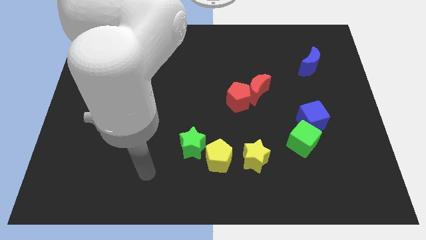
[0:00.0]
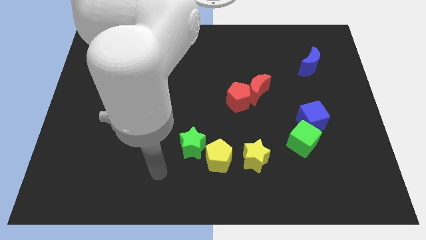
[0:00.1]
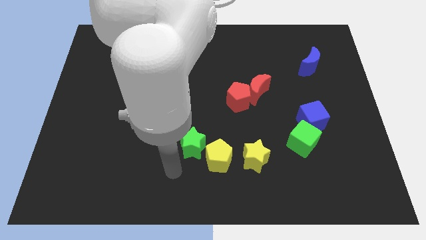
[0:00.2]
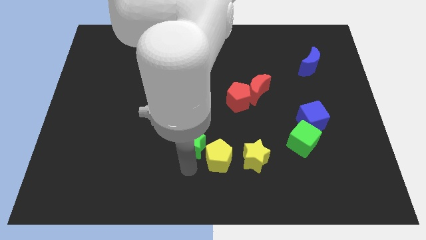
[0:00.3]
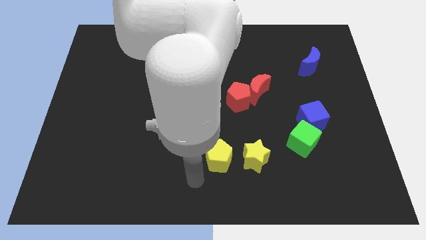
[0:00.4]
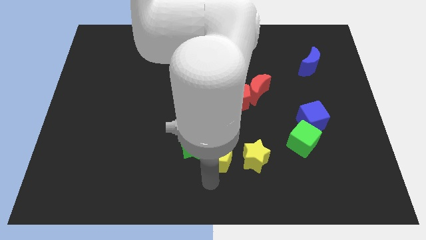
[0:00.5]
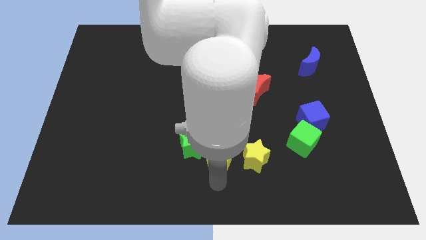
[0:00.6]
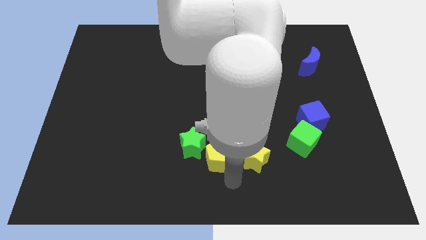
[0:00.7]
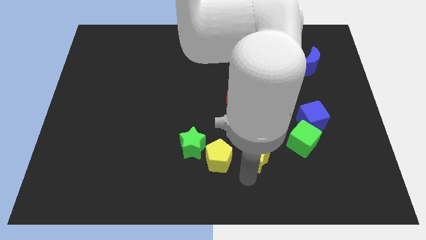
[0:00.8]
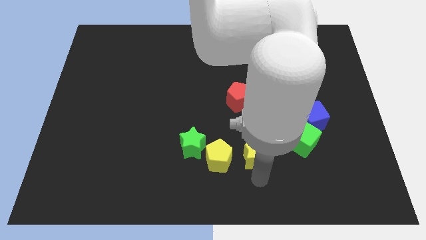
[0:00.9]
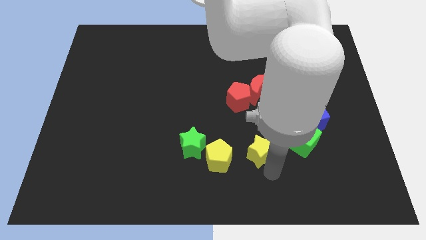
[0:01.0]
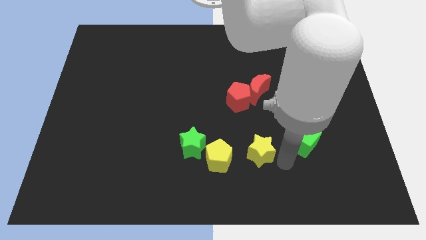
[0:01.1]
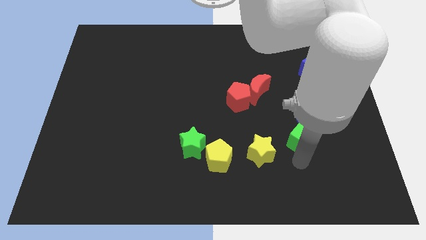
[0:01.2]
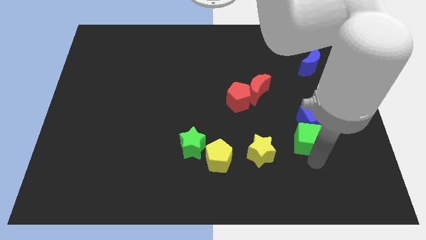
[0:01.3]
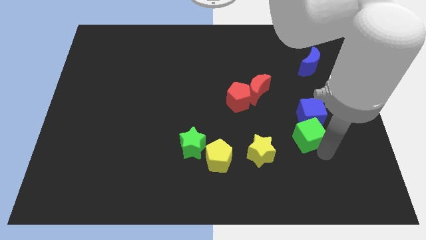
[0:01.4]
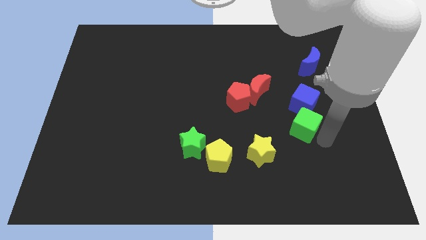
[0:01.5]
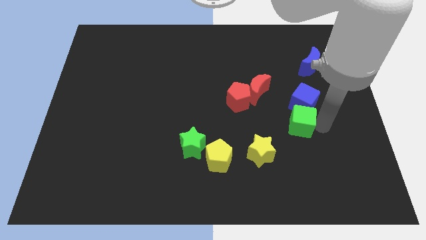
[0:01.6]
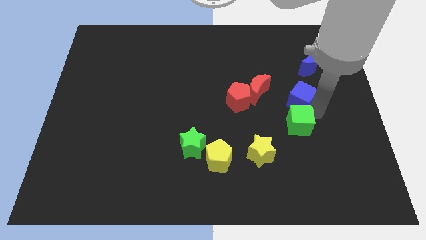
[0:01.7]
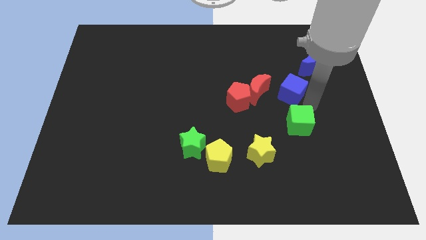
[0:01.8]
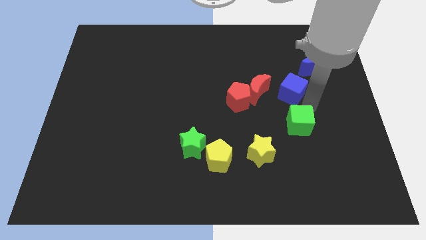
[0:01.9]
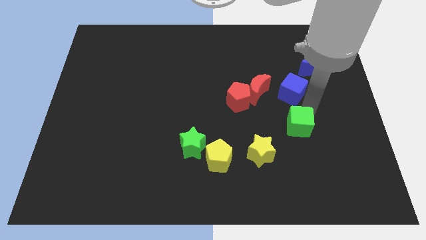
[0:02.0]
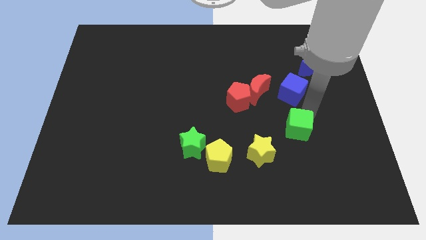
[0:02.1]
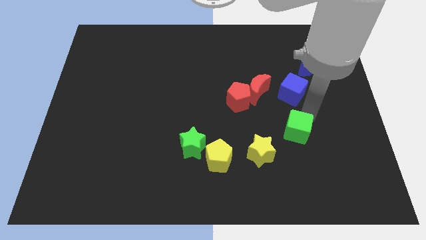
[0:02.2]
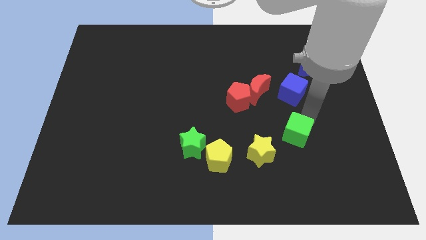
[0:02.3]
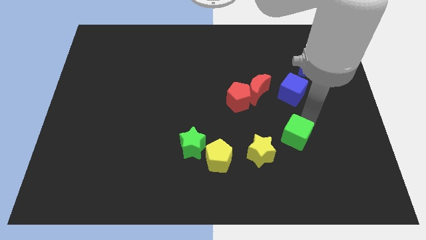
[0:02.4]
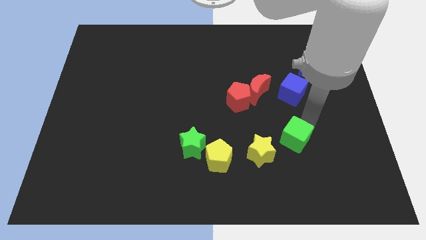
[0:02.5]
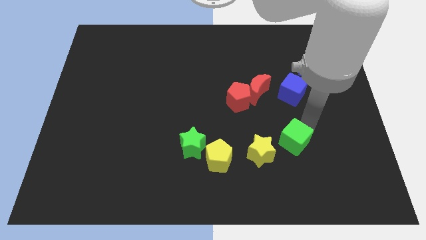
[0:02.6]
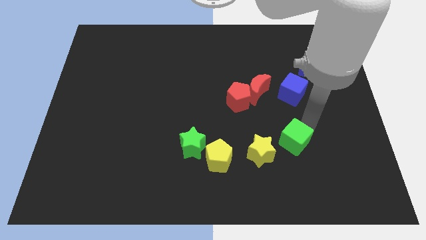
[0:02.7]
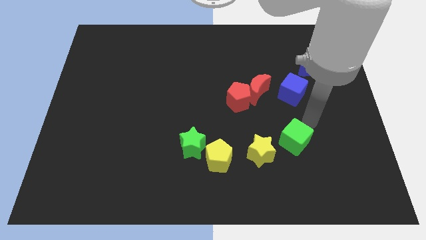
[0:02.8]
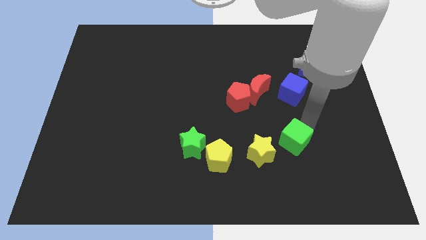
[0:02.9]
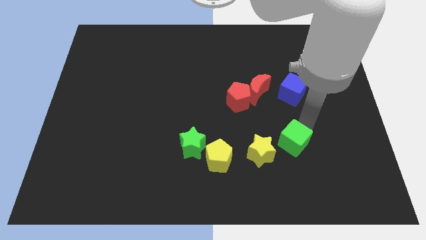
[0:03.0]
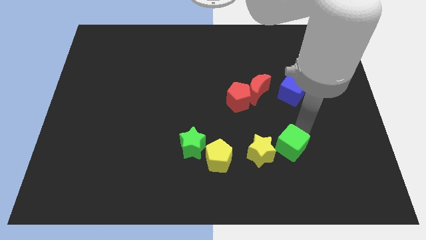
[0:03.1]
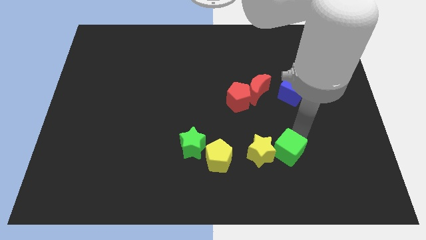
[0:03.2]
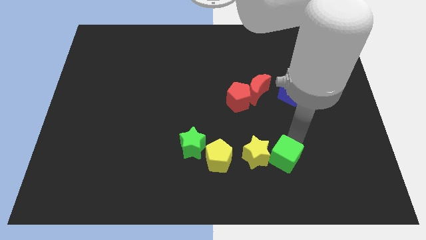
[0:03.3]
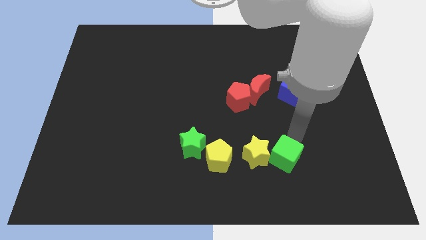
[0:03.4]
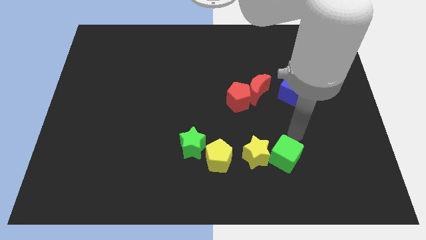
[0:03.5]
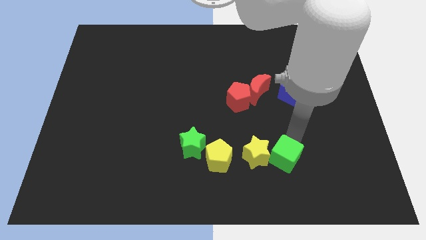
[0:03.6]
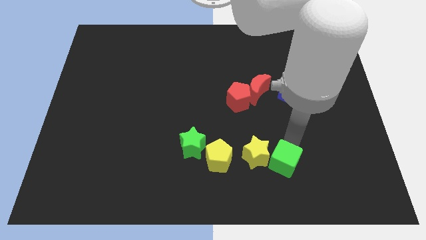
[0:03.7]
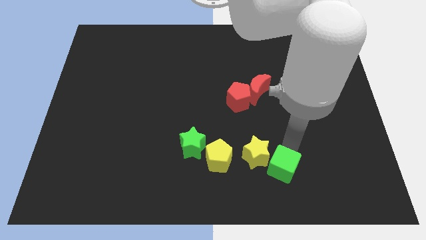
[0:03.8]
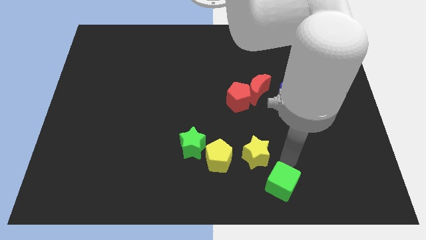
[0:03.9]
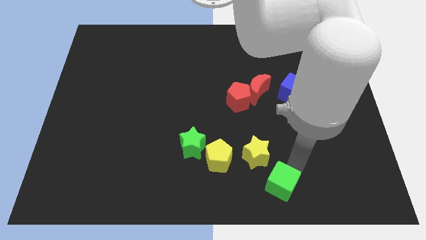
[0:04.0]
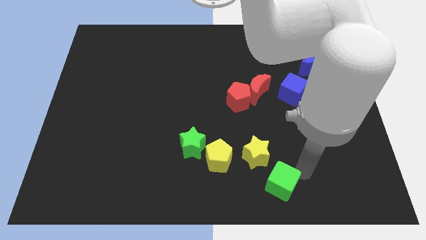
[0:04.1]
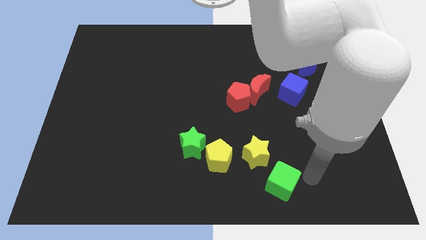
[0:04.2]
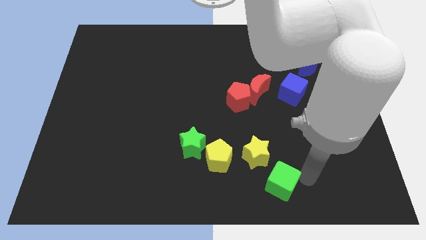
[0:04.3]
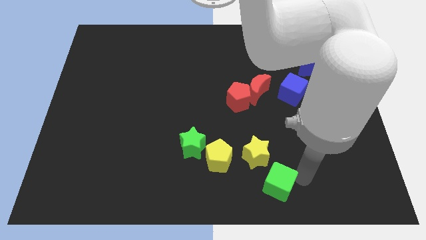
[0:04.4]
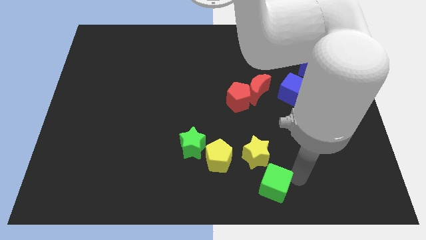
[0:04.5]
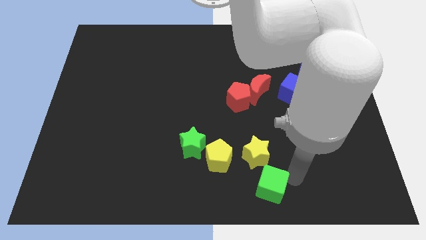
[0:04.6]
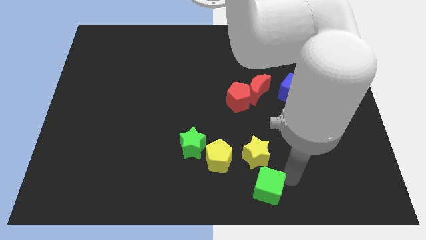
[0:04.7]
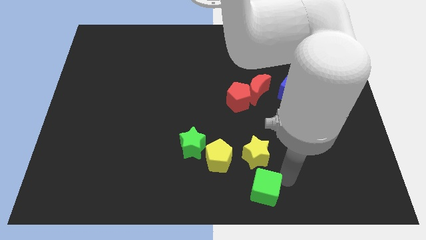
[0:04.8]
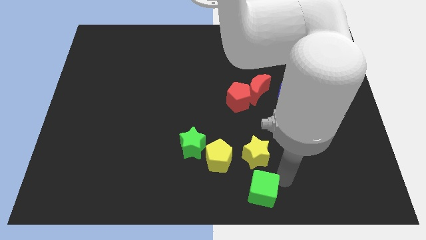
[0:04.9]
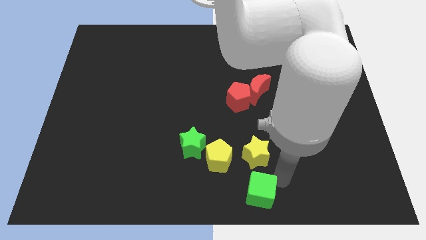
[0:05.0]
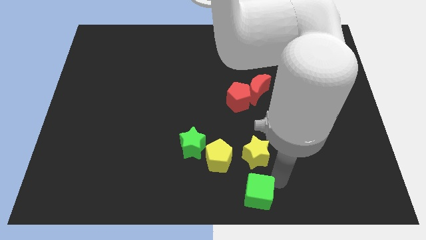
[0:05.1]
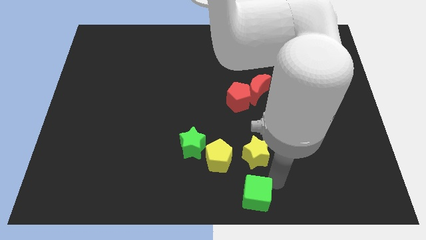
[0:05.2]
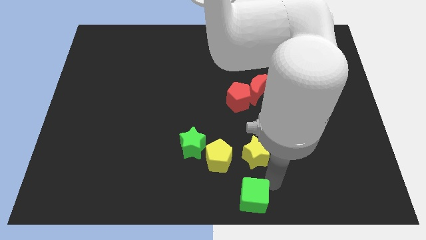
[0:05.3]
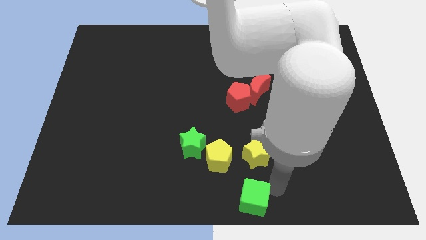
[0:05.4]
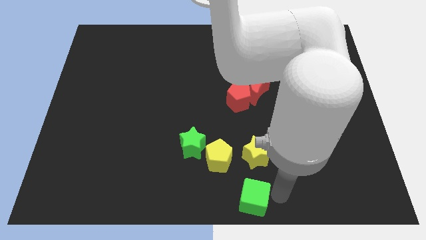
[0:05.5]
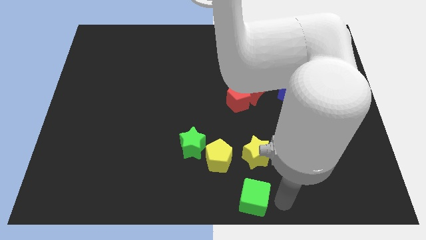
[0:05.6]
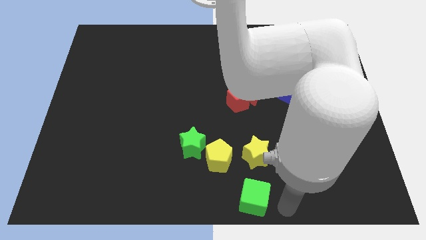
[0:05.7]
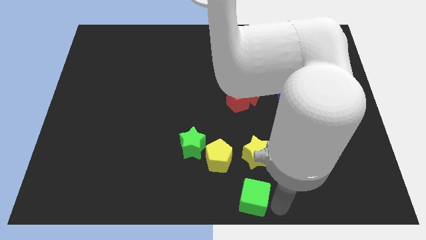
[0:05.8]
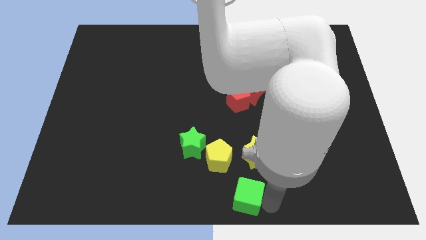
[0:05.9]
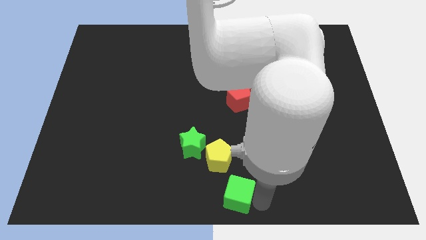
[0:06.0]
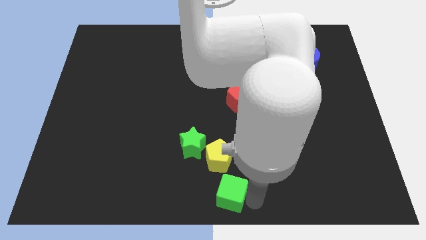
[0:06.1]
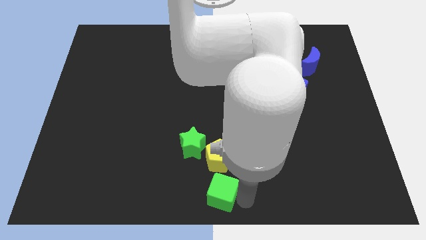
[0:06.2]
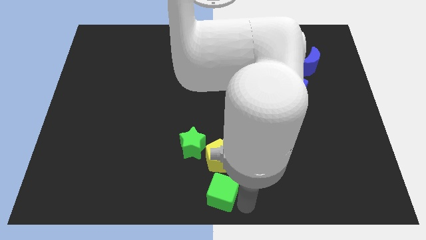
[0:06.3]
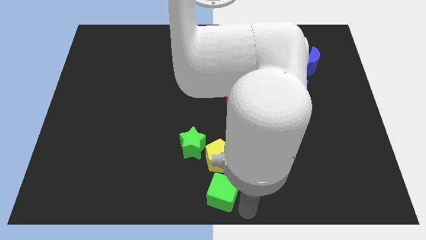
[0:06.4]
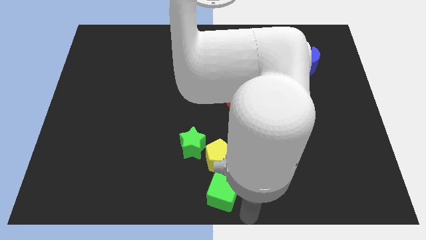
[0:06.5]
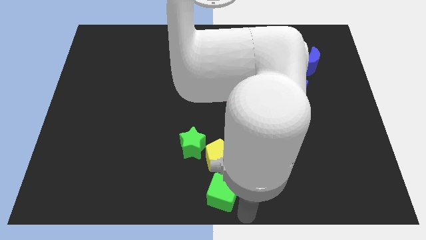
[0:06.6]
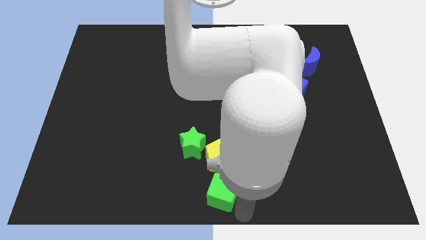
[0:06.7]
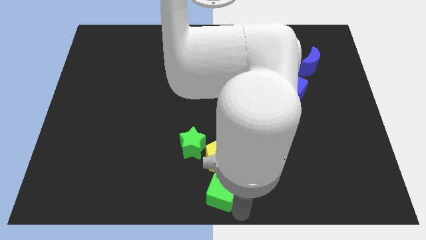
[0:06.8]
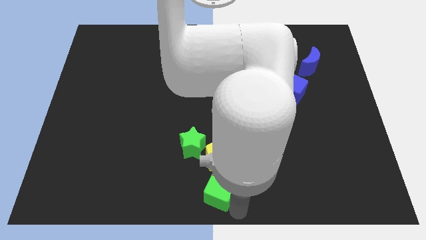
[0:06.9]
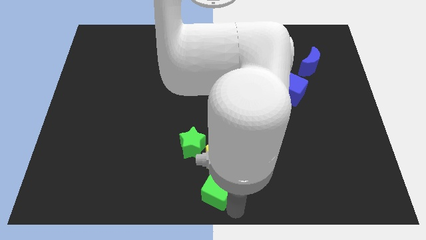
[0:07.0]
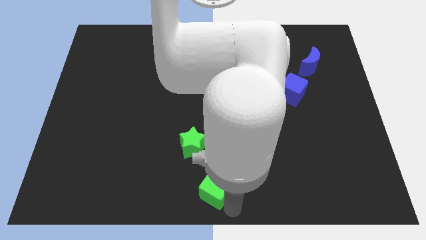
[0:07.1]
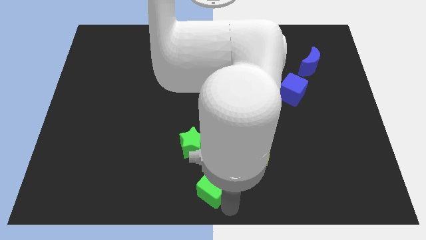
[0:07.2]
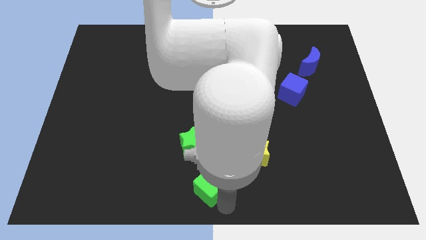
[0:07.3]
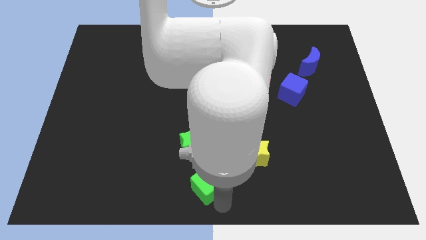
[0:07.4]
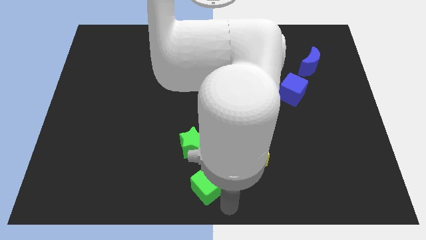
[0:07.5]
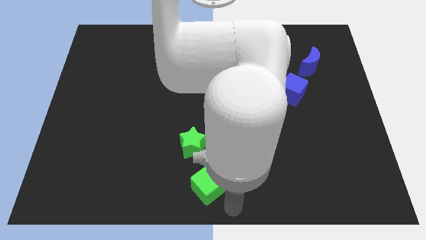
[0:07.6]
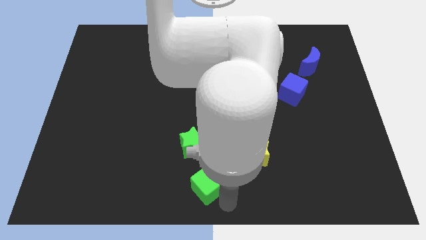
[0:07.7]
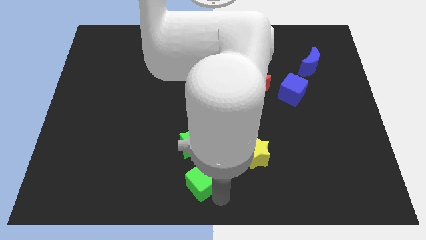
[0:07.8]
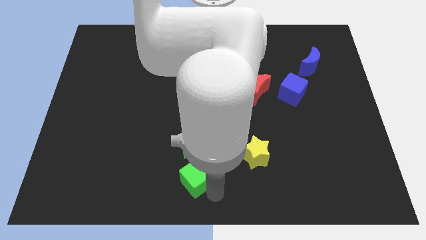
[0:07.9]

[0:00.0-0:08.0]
move the green cube left of the yellow pentagon

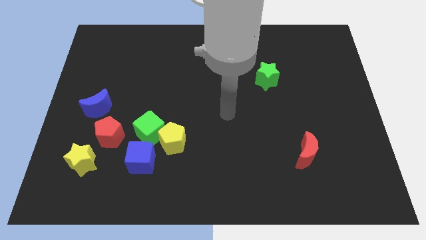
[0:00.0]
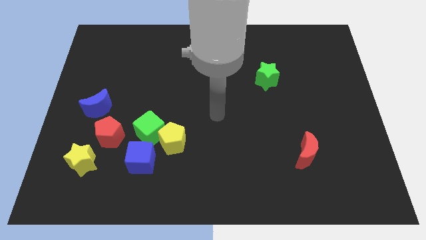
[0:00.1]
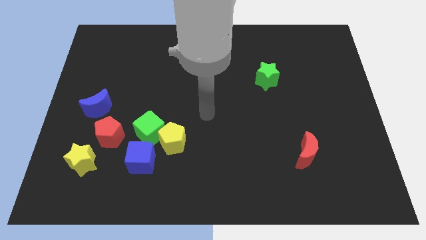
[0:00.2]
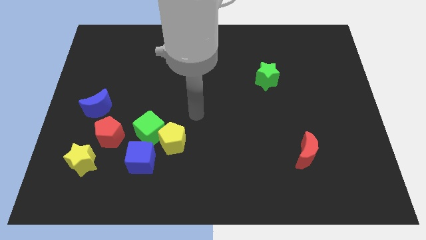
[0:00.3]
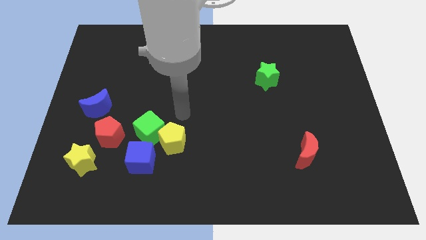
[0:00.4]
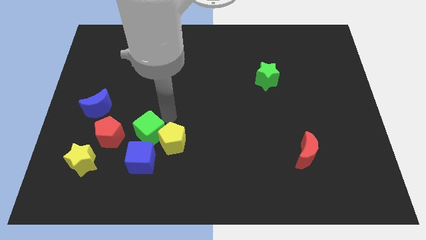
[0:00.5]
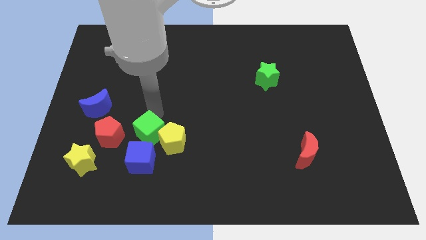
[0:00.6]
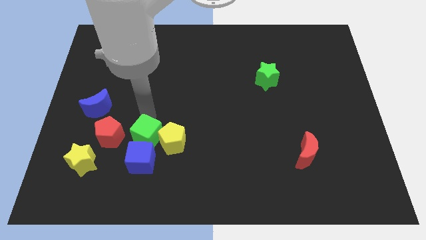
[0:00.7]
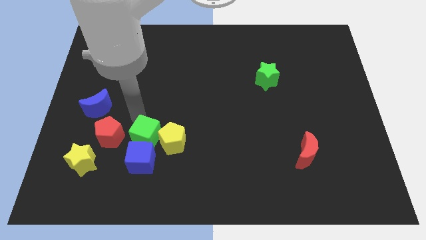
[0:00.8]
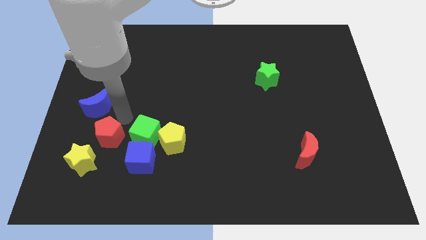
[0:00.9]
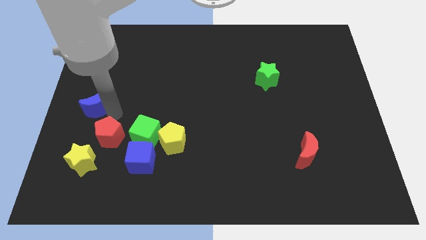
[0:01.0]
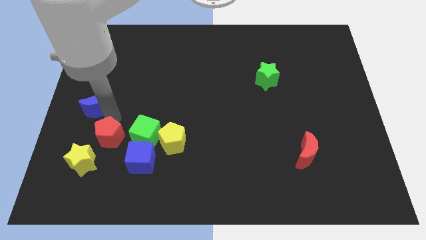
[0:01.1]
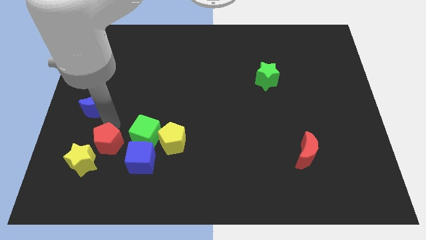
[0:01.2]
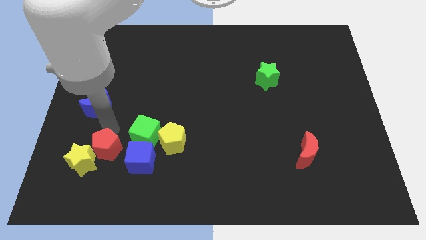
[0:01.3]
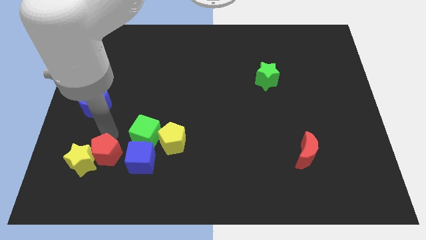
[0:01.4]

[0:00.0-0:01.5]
put the red pentagon diagonally down and to the right of the yellow star
